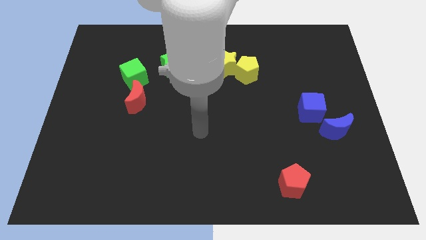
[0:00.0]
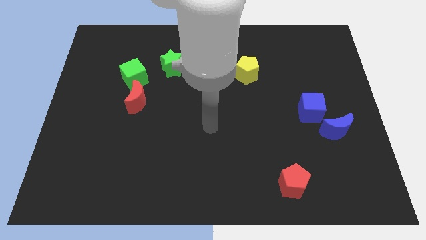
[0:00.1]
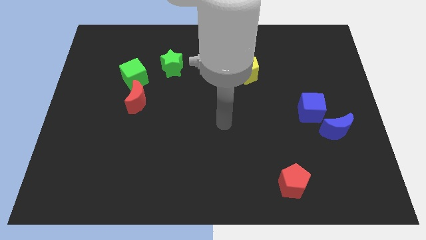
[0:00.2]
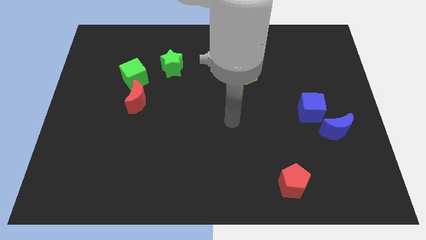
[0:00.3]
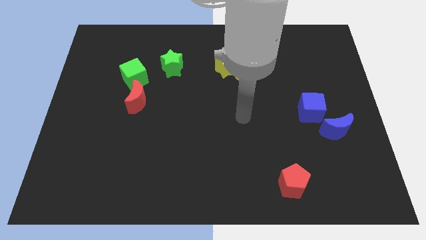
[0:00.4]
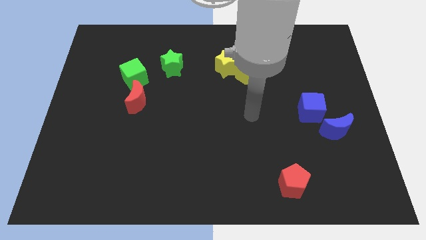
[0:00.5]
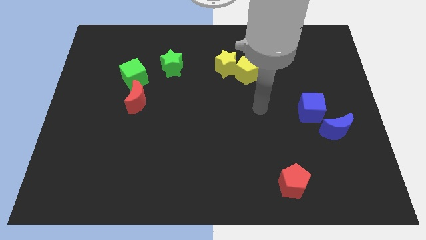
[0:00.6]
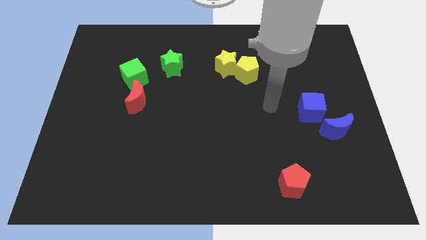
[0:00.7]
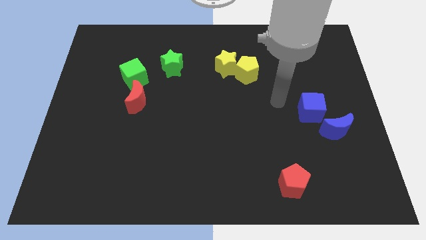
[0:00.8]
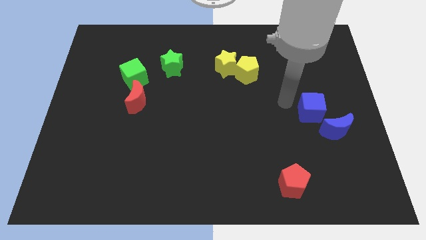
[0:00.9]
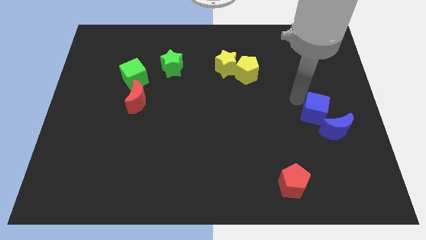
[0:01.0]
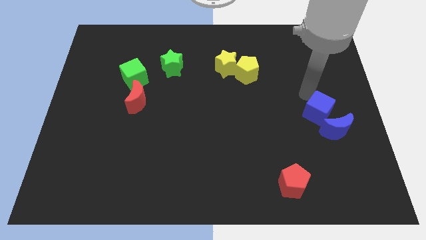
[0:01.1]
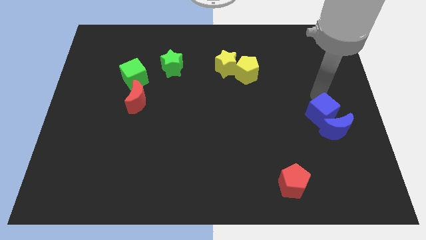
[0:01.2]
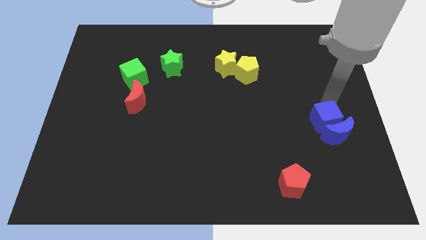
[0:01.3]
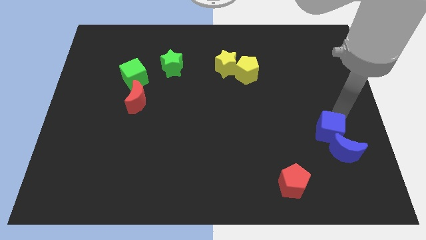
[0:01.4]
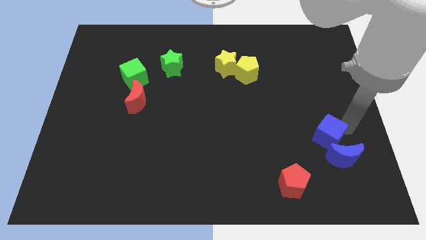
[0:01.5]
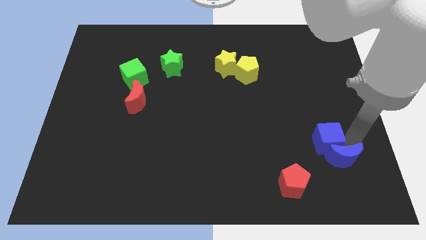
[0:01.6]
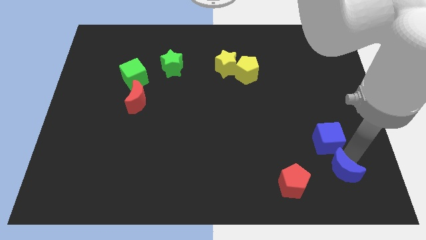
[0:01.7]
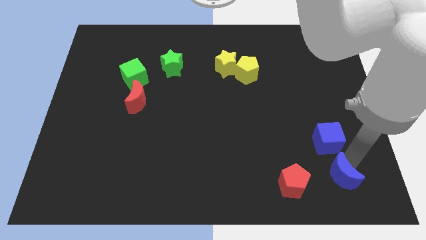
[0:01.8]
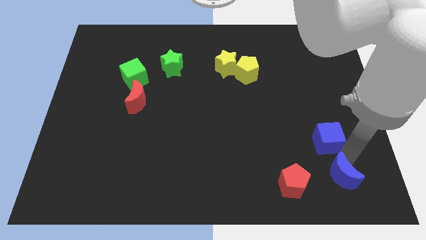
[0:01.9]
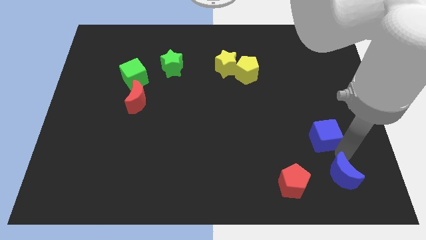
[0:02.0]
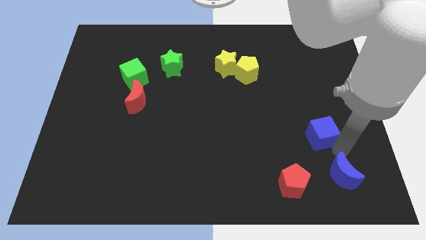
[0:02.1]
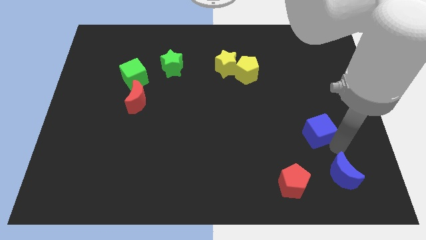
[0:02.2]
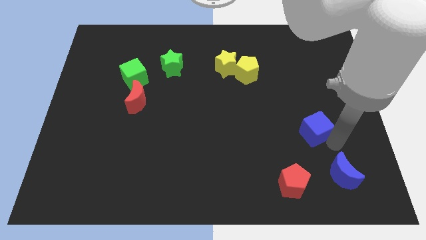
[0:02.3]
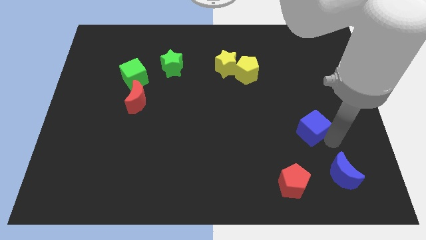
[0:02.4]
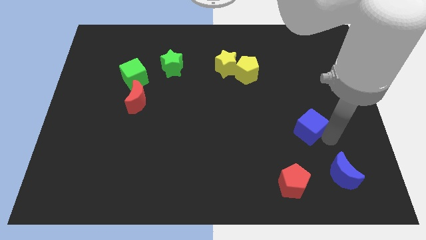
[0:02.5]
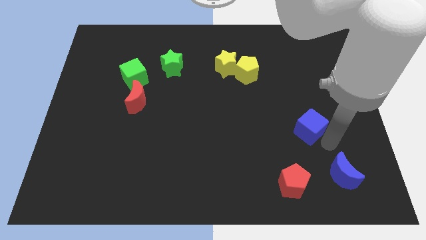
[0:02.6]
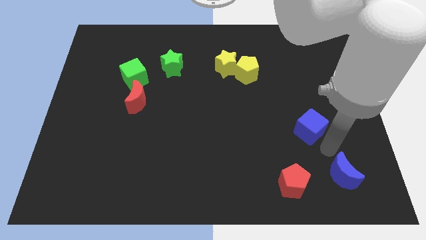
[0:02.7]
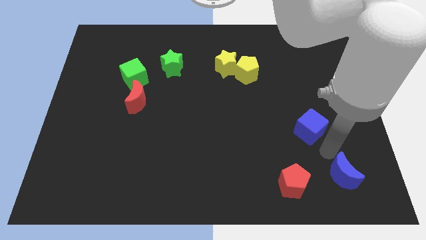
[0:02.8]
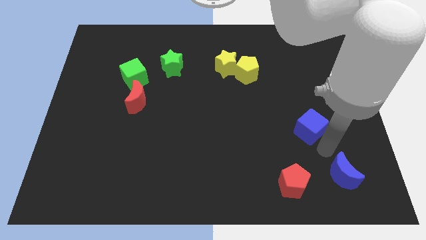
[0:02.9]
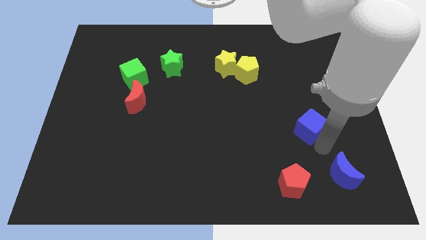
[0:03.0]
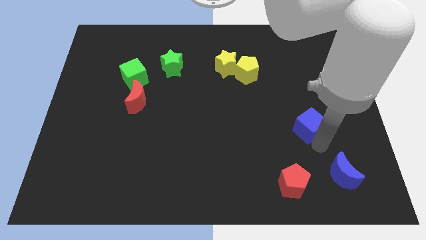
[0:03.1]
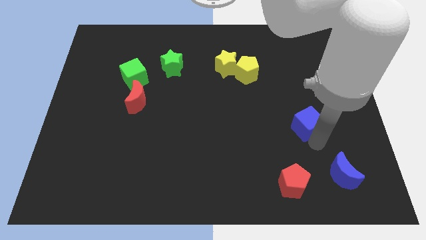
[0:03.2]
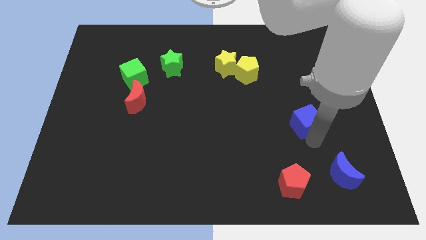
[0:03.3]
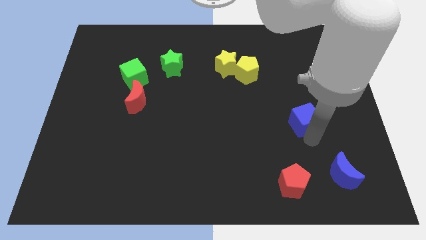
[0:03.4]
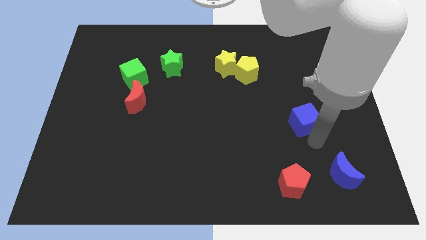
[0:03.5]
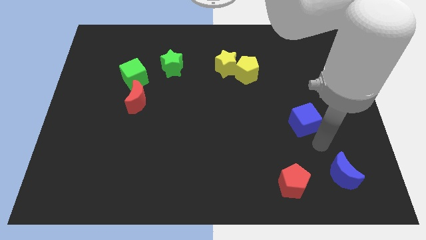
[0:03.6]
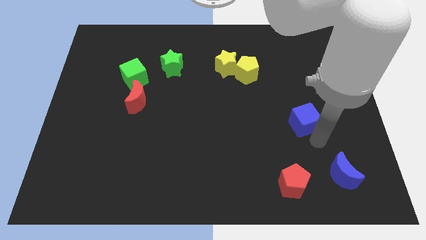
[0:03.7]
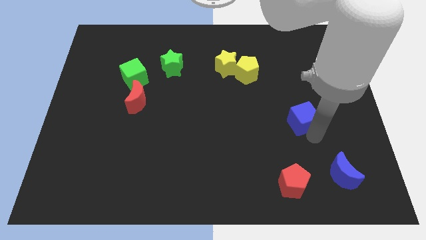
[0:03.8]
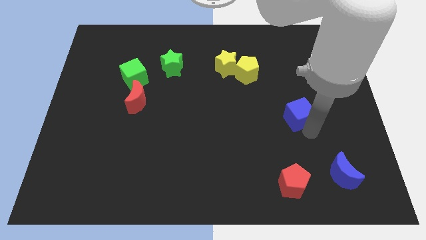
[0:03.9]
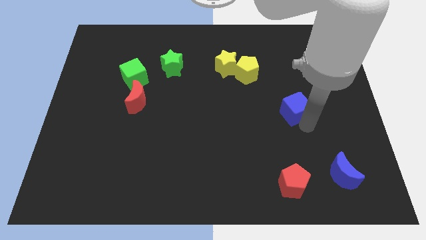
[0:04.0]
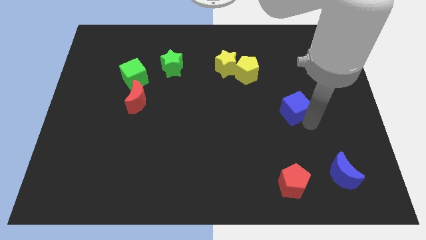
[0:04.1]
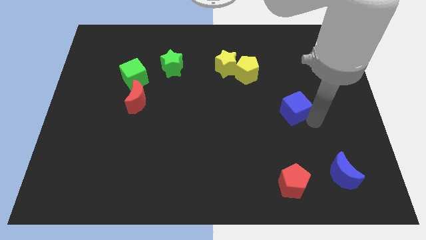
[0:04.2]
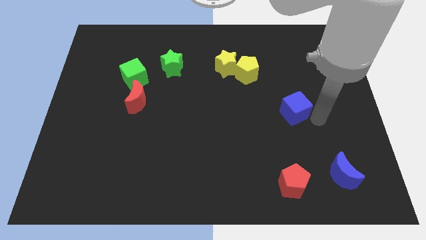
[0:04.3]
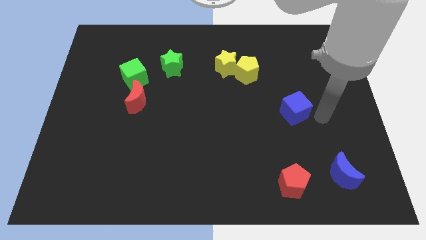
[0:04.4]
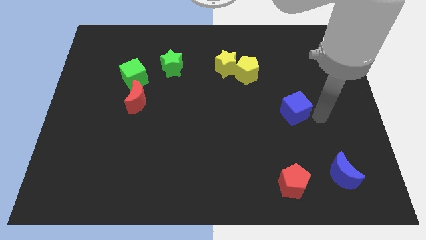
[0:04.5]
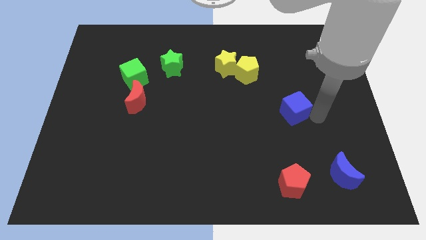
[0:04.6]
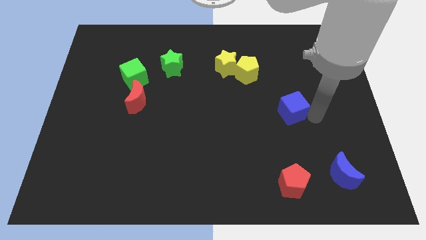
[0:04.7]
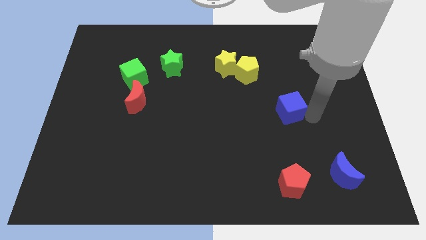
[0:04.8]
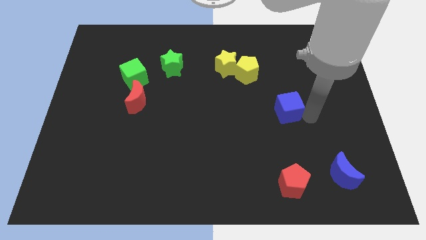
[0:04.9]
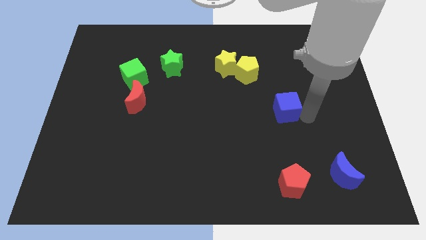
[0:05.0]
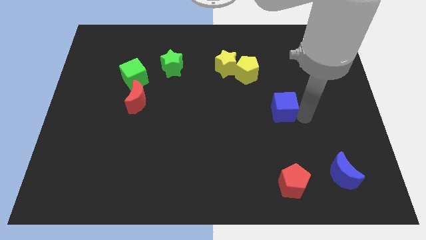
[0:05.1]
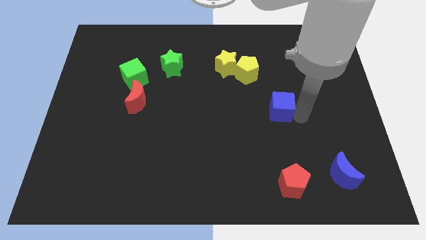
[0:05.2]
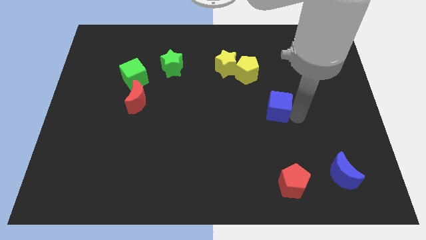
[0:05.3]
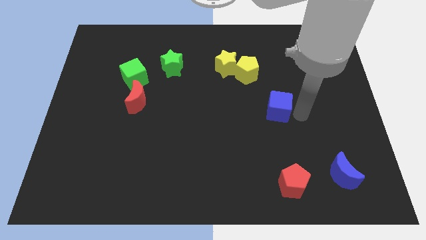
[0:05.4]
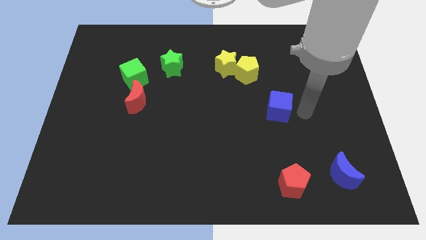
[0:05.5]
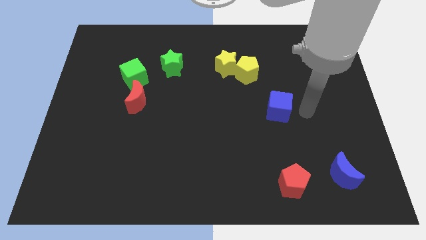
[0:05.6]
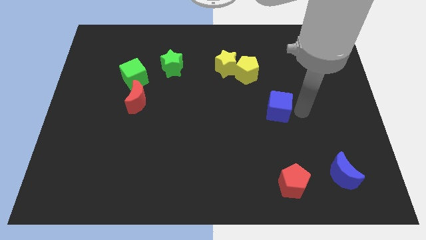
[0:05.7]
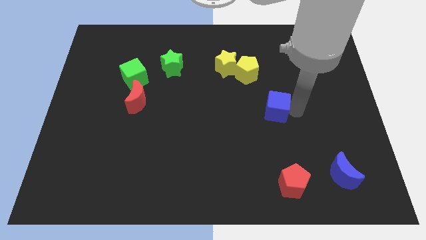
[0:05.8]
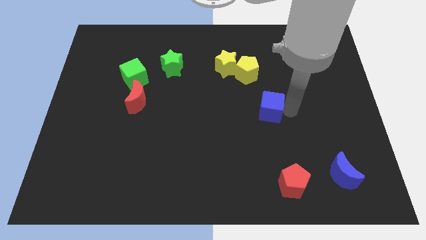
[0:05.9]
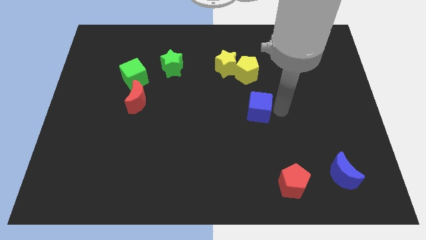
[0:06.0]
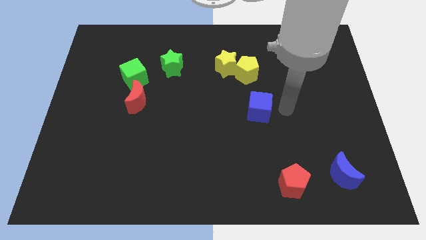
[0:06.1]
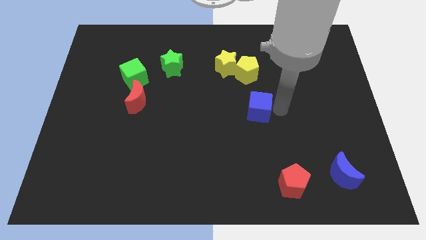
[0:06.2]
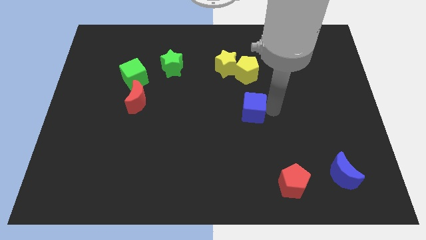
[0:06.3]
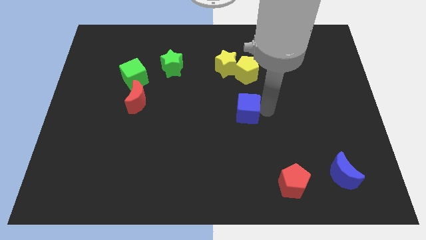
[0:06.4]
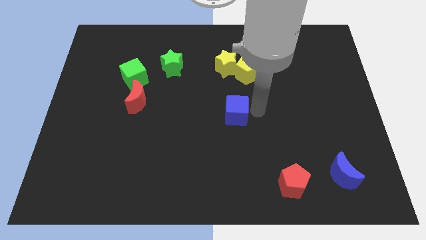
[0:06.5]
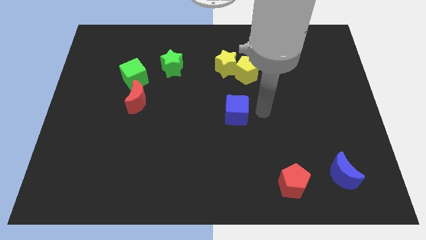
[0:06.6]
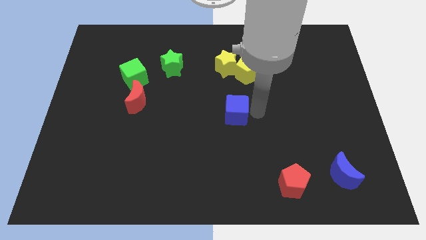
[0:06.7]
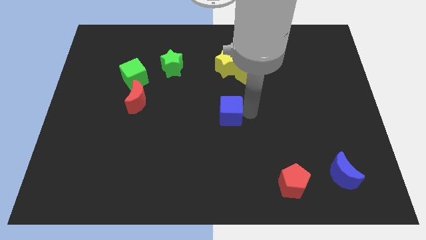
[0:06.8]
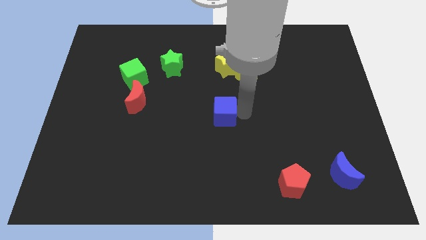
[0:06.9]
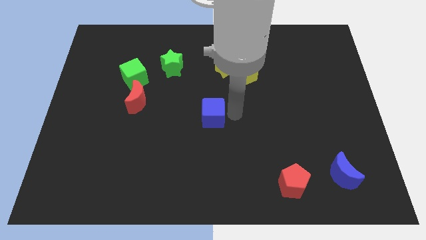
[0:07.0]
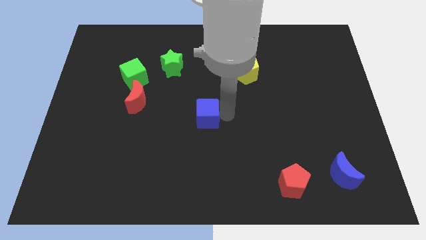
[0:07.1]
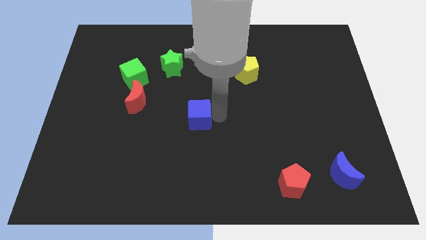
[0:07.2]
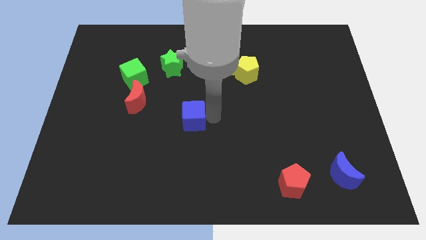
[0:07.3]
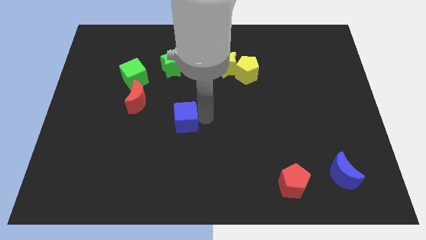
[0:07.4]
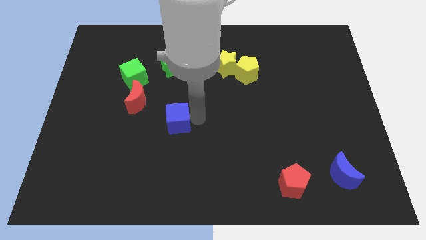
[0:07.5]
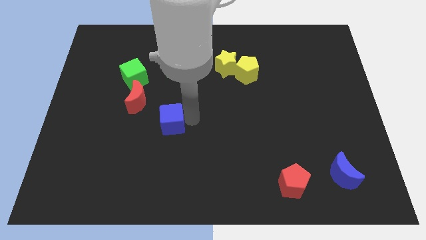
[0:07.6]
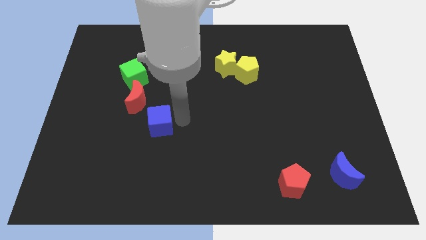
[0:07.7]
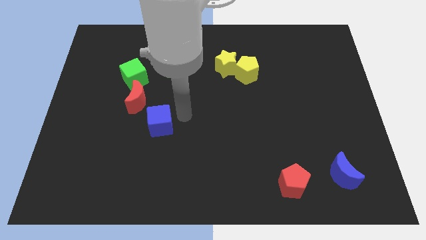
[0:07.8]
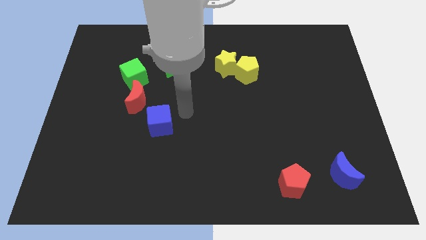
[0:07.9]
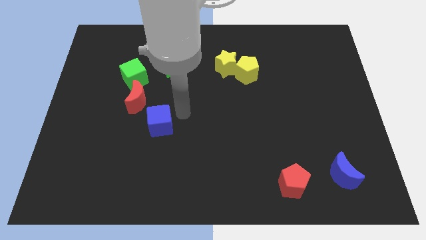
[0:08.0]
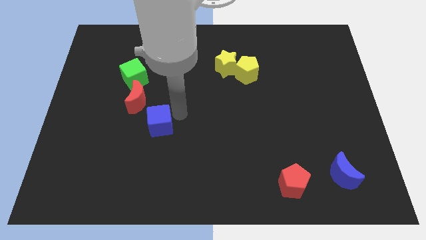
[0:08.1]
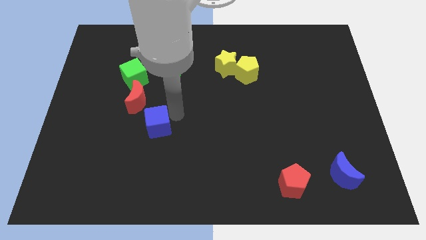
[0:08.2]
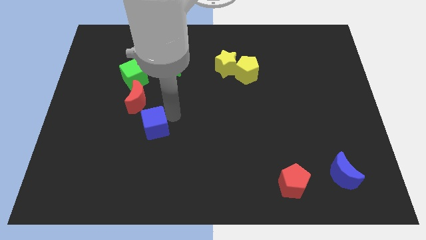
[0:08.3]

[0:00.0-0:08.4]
put the blue cube to the bottom side of the red moon
